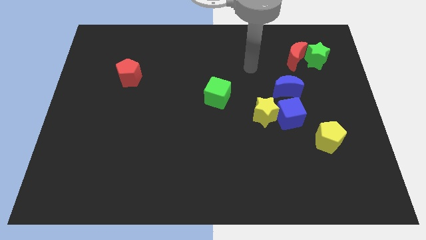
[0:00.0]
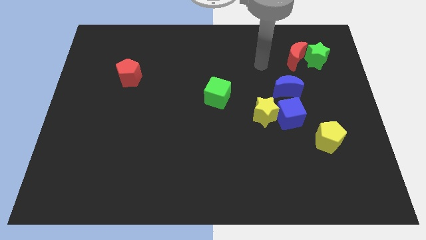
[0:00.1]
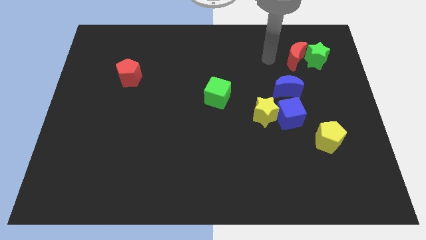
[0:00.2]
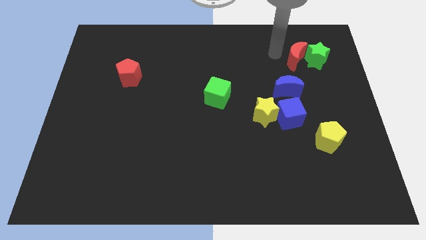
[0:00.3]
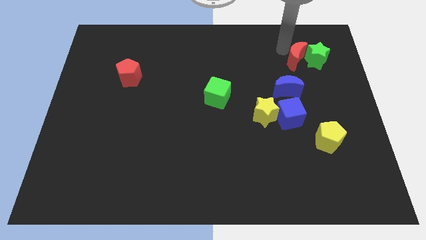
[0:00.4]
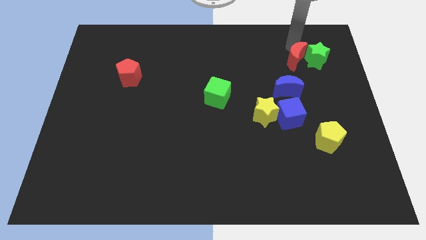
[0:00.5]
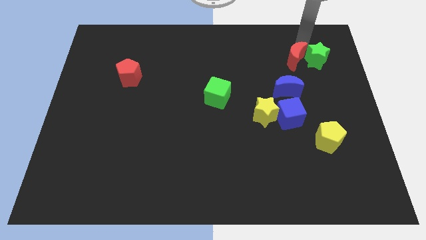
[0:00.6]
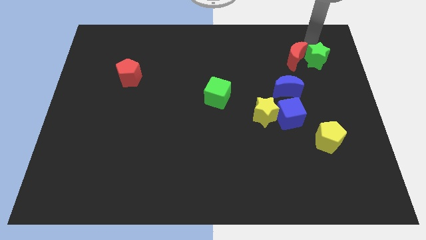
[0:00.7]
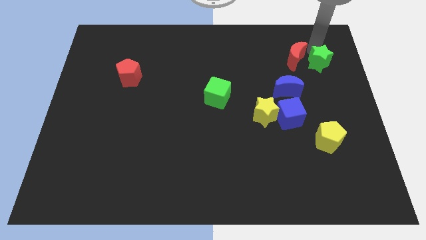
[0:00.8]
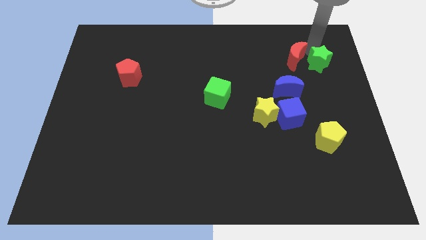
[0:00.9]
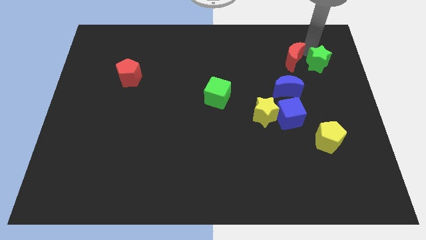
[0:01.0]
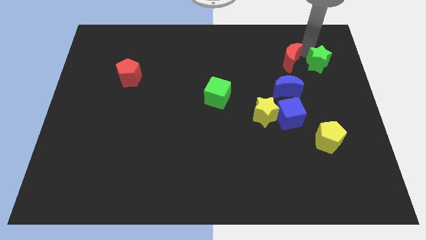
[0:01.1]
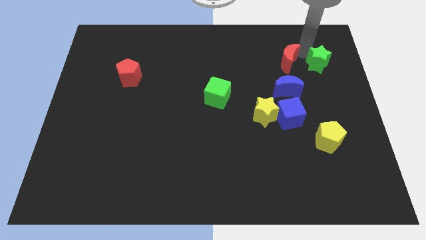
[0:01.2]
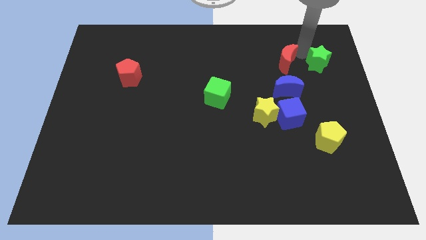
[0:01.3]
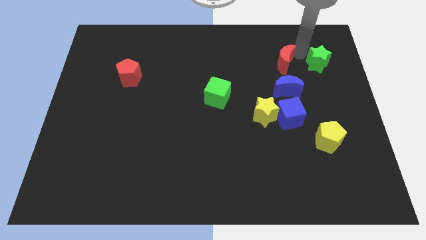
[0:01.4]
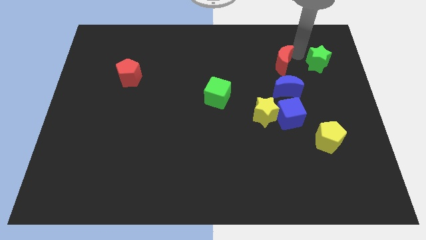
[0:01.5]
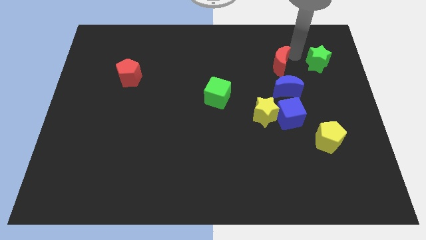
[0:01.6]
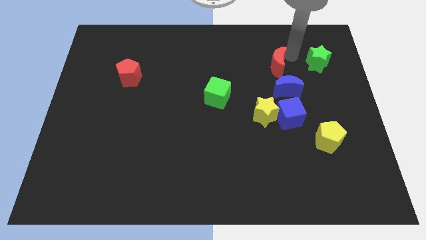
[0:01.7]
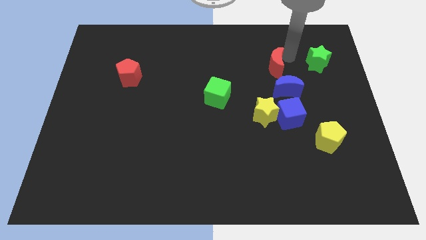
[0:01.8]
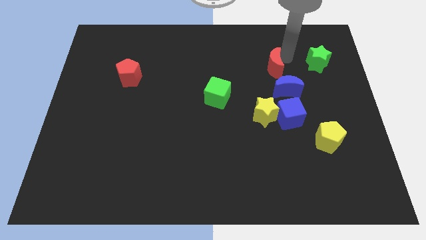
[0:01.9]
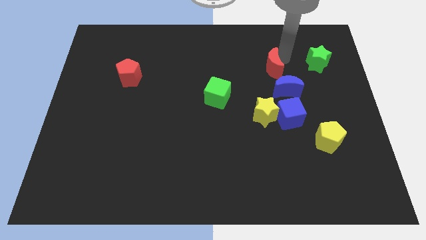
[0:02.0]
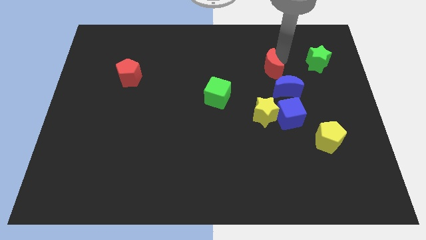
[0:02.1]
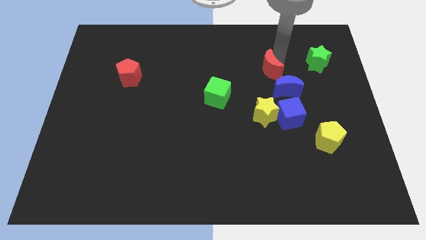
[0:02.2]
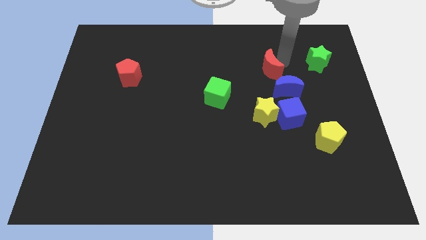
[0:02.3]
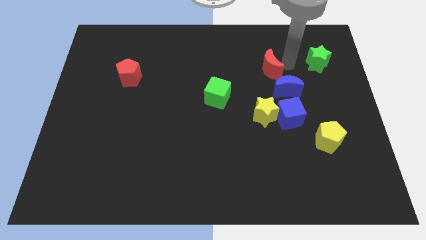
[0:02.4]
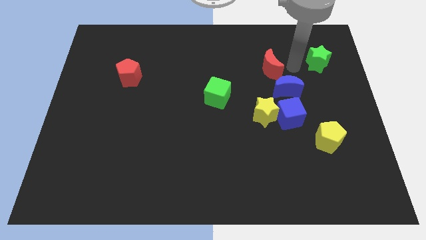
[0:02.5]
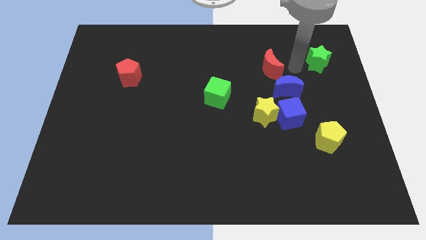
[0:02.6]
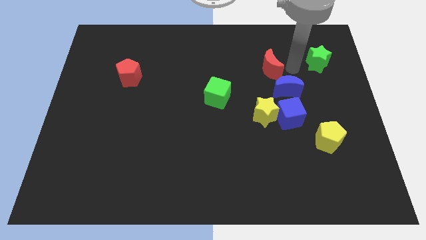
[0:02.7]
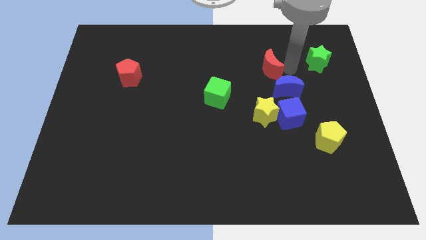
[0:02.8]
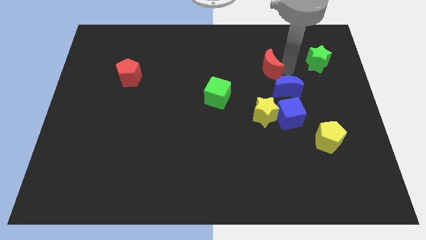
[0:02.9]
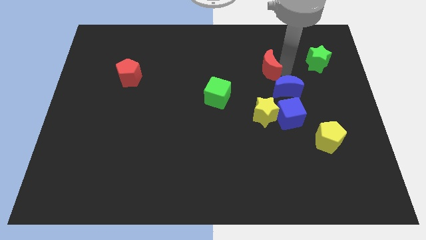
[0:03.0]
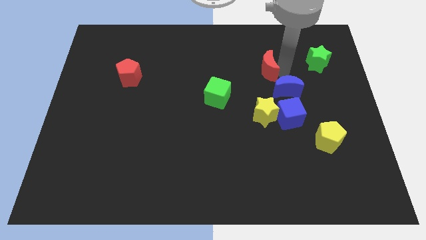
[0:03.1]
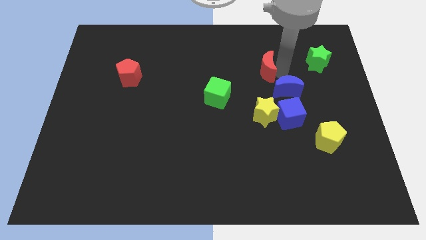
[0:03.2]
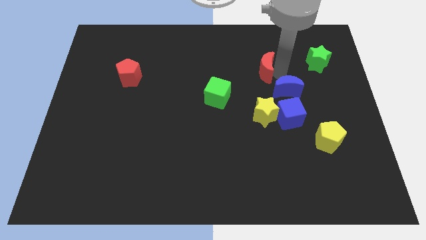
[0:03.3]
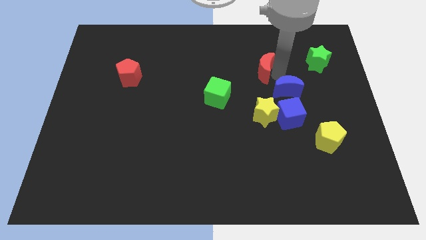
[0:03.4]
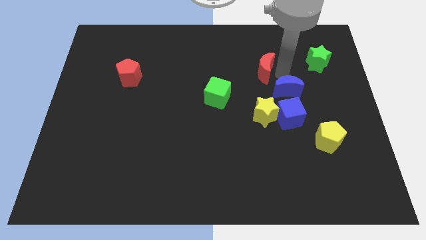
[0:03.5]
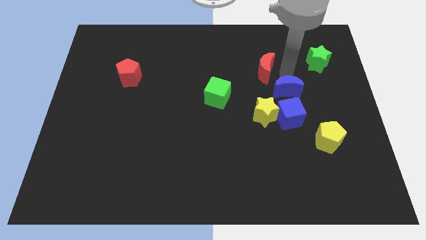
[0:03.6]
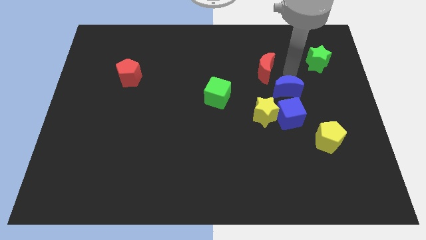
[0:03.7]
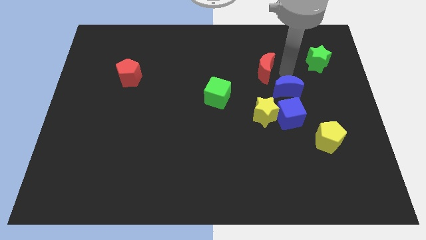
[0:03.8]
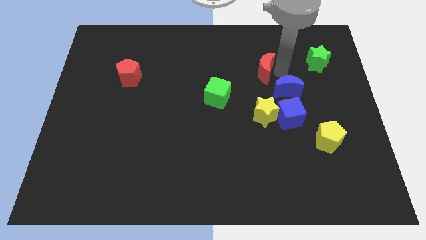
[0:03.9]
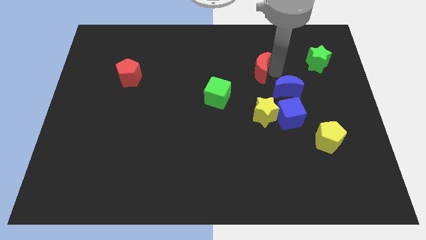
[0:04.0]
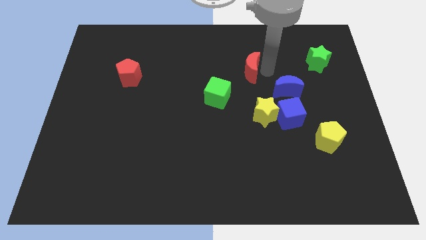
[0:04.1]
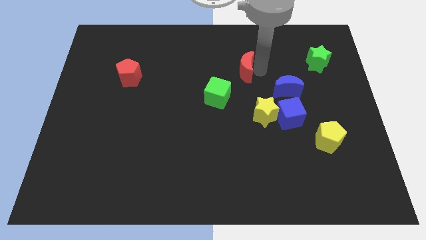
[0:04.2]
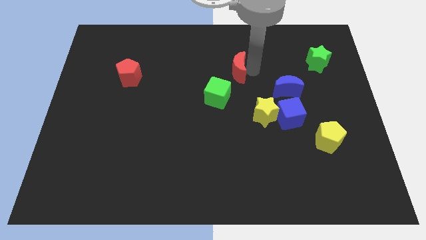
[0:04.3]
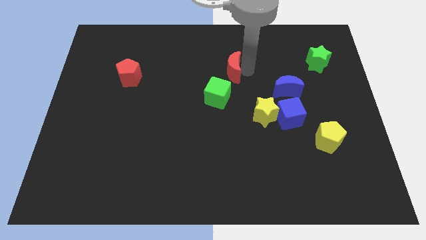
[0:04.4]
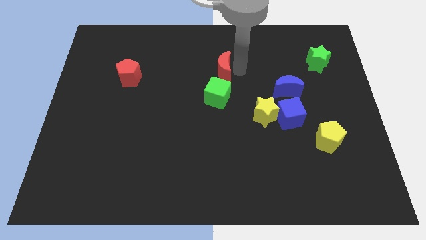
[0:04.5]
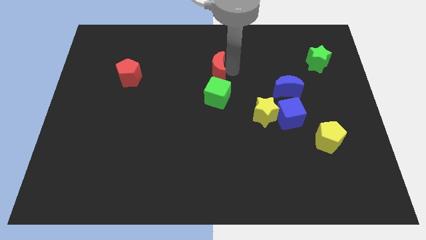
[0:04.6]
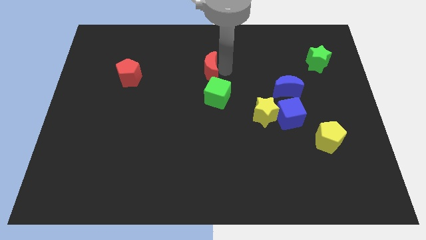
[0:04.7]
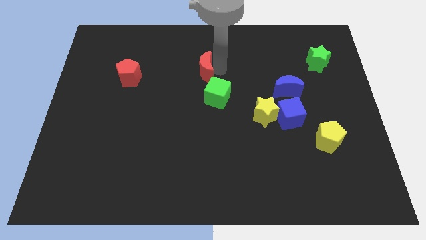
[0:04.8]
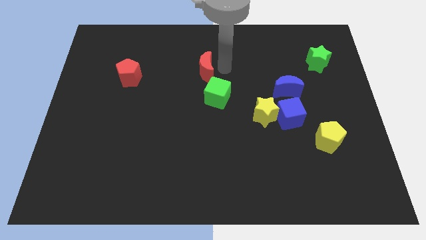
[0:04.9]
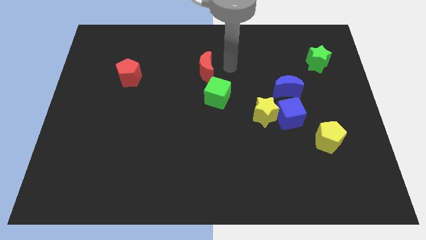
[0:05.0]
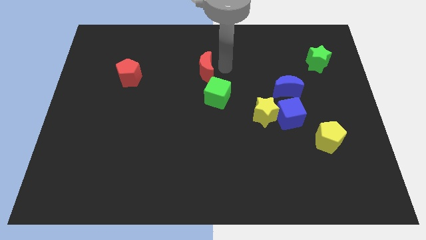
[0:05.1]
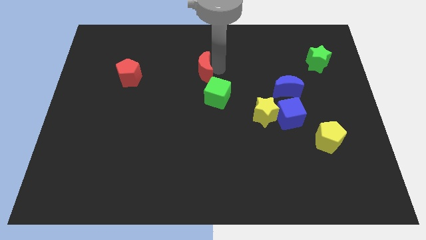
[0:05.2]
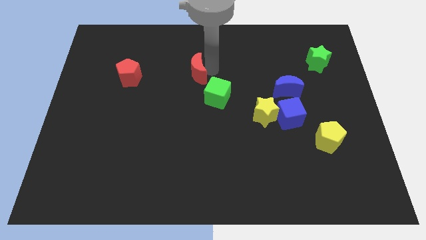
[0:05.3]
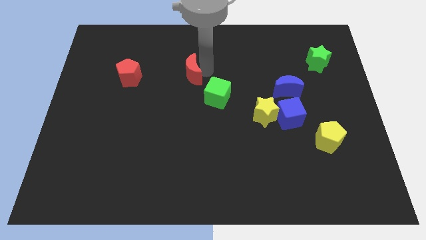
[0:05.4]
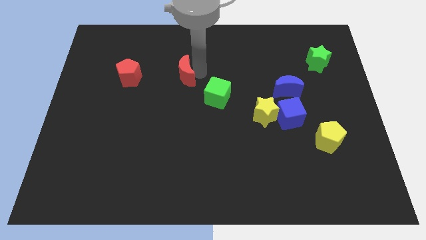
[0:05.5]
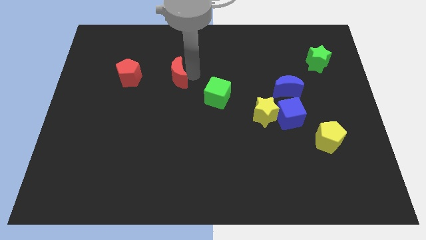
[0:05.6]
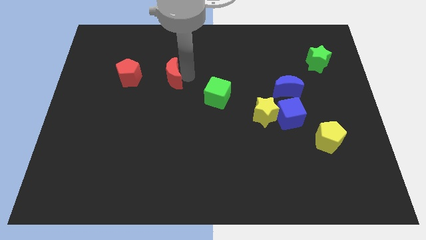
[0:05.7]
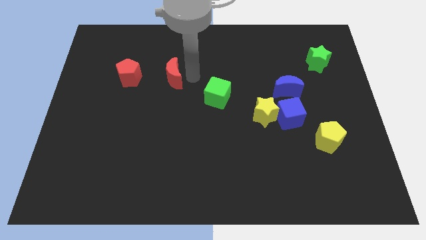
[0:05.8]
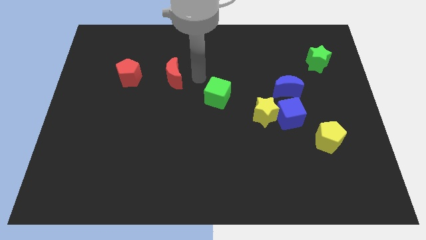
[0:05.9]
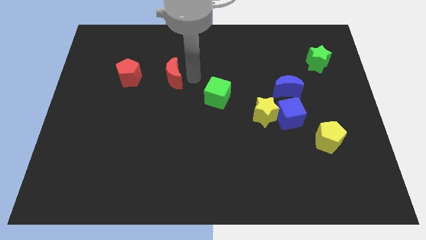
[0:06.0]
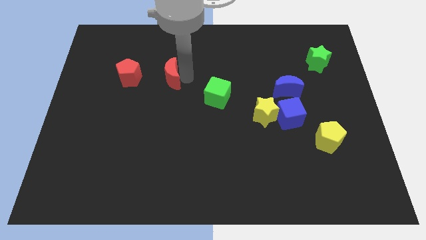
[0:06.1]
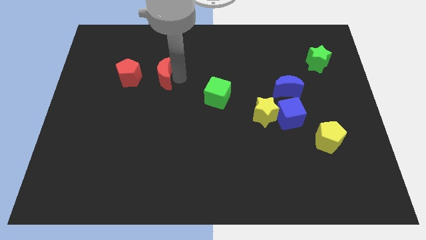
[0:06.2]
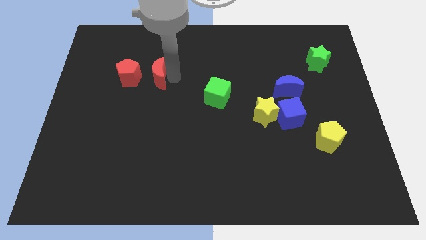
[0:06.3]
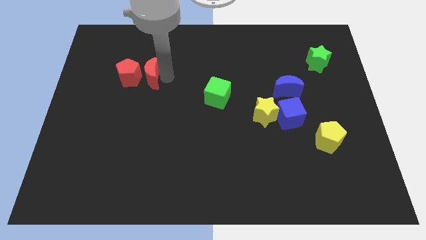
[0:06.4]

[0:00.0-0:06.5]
slide the red moon close to the red pentagon
